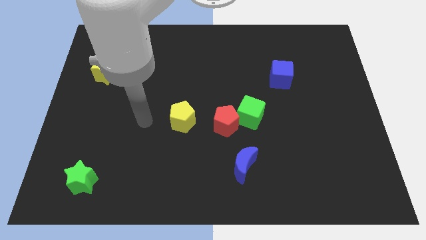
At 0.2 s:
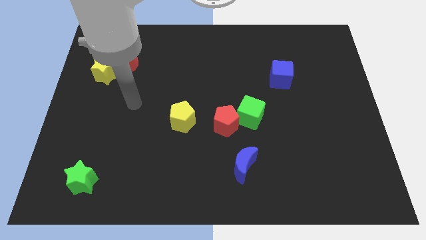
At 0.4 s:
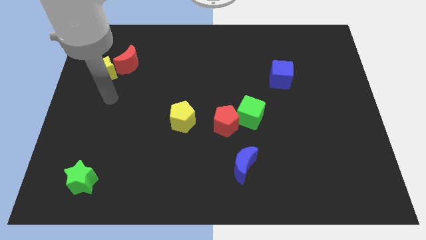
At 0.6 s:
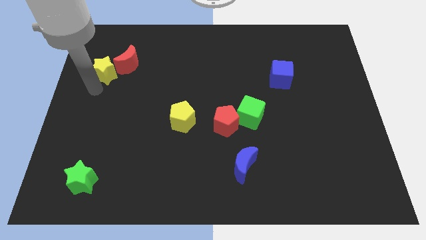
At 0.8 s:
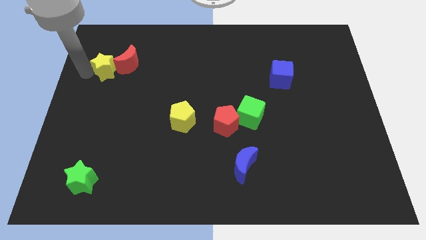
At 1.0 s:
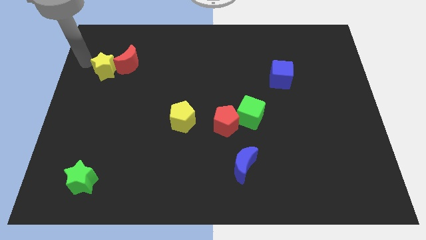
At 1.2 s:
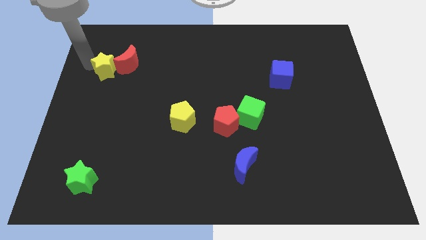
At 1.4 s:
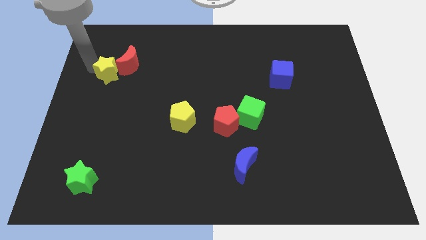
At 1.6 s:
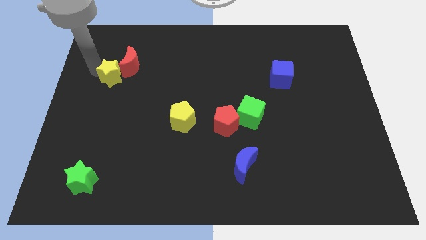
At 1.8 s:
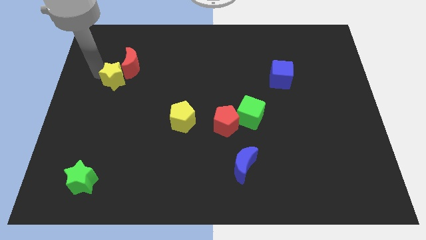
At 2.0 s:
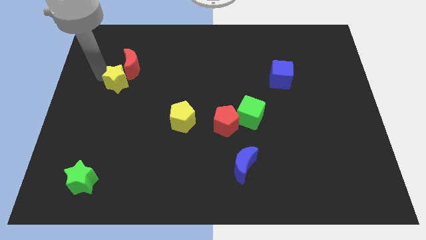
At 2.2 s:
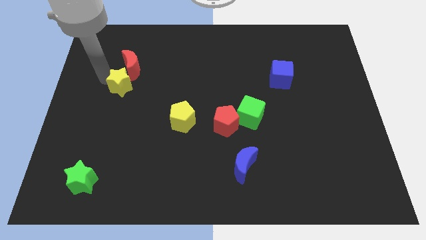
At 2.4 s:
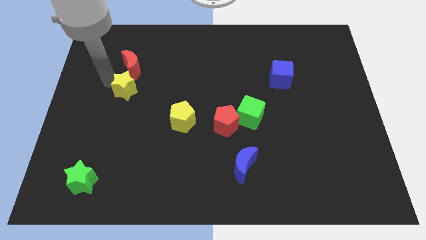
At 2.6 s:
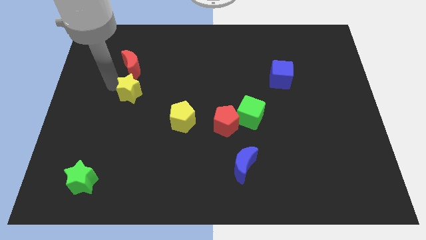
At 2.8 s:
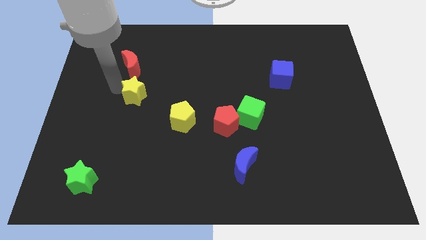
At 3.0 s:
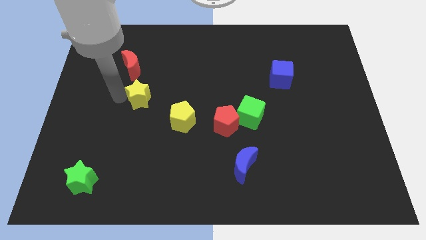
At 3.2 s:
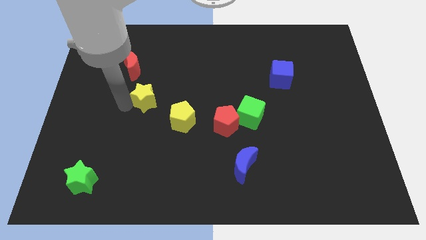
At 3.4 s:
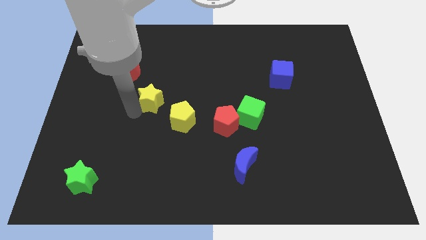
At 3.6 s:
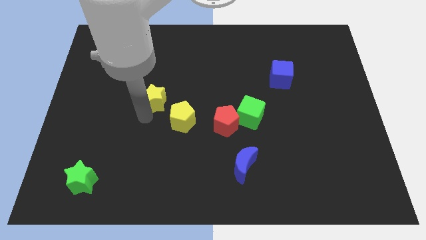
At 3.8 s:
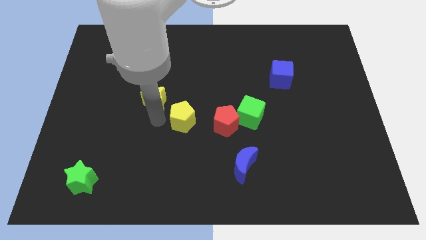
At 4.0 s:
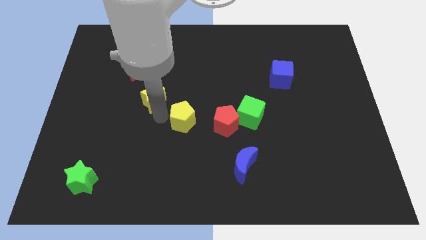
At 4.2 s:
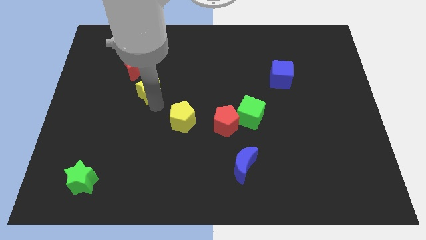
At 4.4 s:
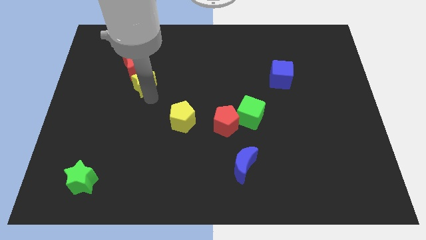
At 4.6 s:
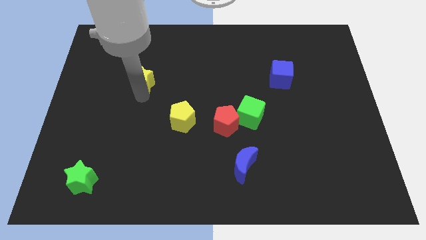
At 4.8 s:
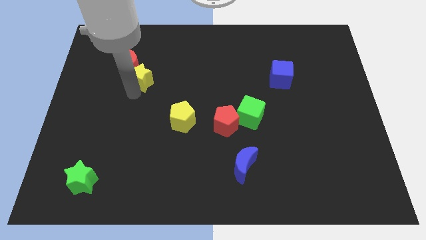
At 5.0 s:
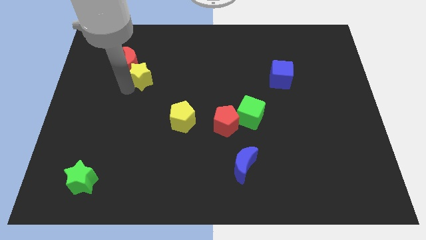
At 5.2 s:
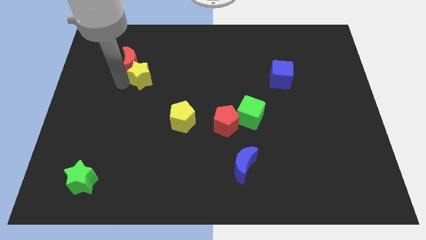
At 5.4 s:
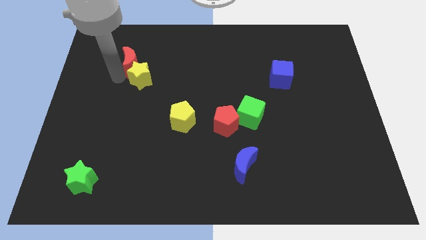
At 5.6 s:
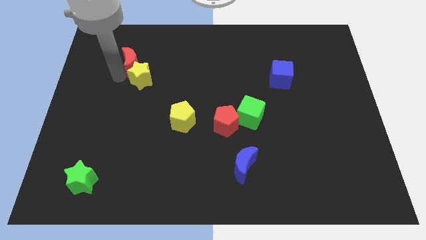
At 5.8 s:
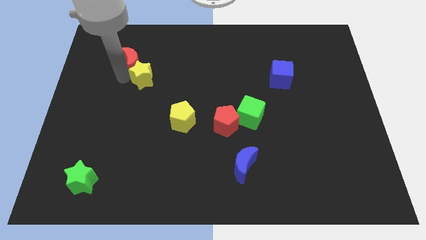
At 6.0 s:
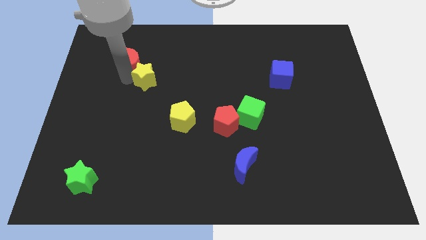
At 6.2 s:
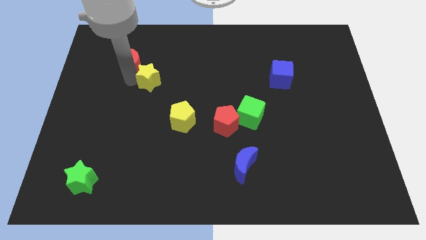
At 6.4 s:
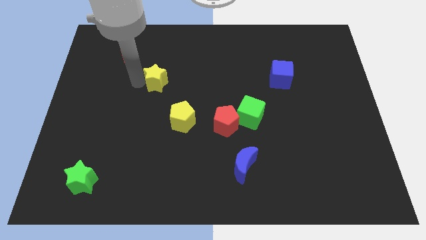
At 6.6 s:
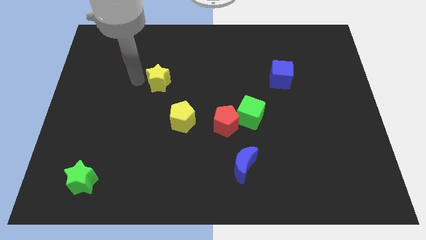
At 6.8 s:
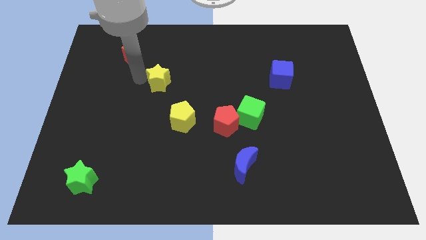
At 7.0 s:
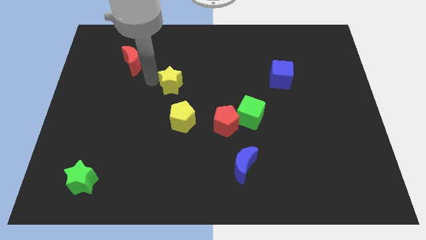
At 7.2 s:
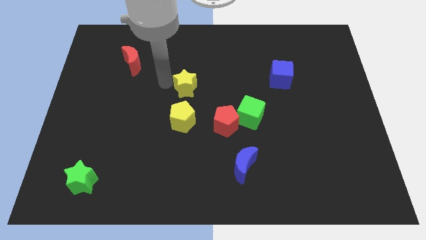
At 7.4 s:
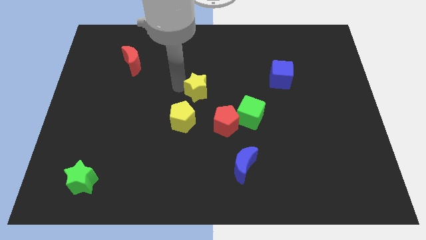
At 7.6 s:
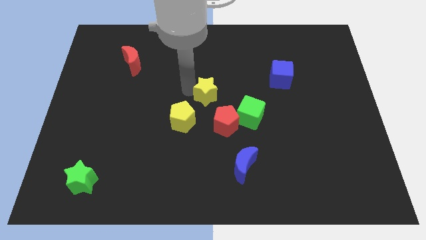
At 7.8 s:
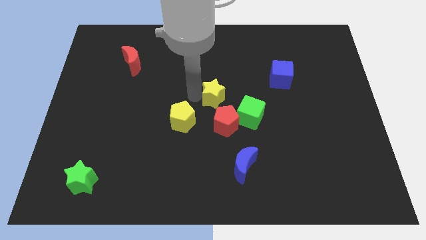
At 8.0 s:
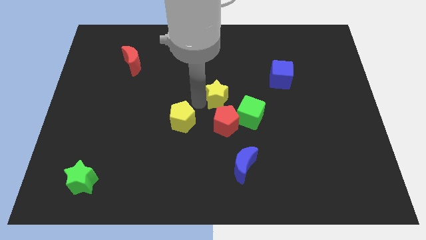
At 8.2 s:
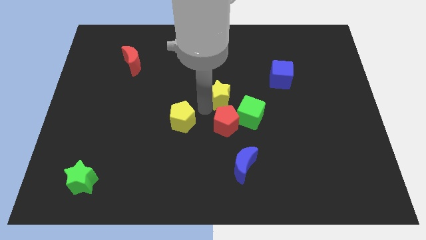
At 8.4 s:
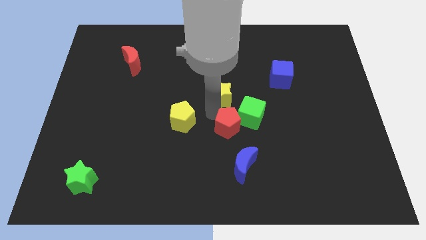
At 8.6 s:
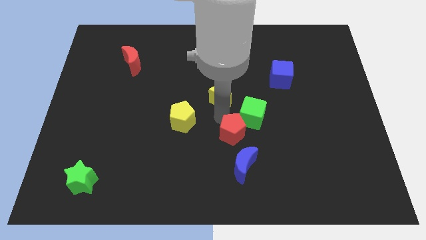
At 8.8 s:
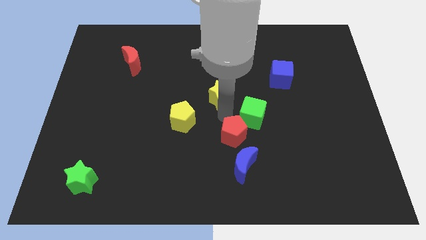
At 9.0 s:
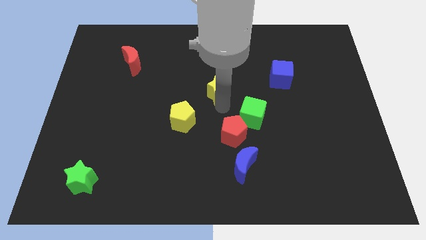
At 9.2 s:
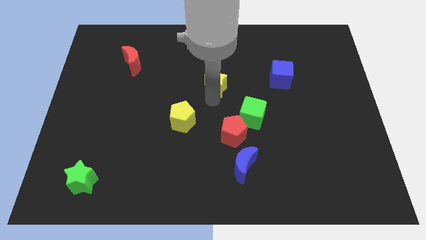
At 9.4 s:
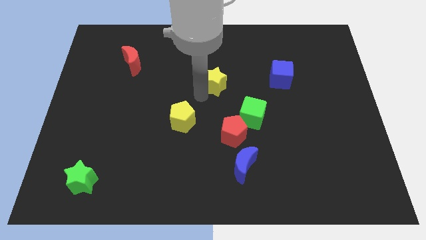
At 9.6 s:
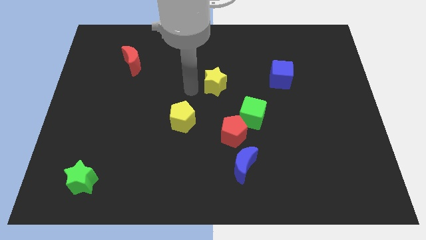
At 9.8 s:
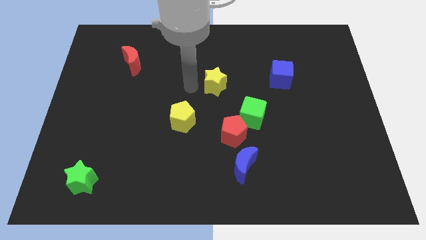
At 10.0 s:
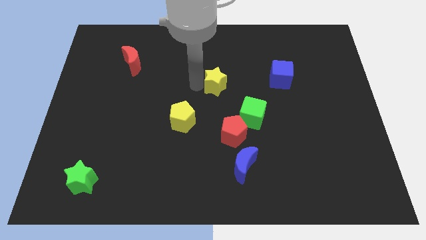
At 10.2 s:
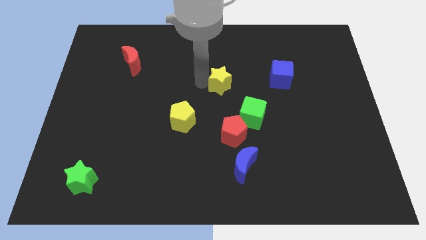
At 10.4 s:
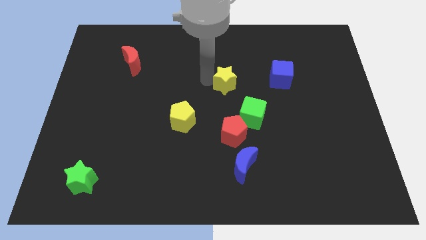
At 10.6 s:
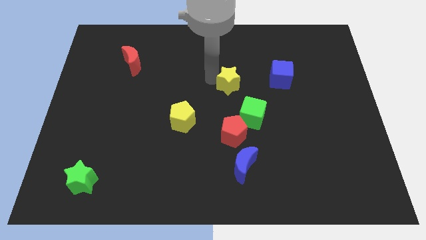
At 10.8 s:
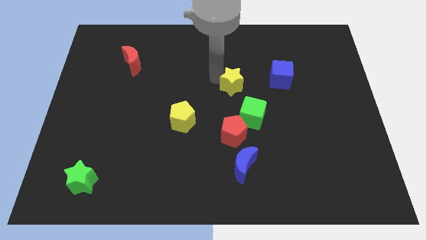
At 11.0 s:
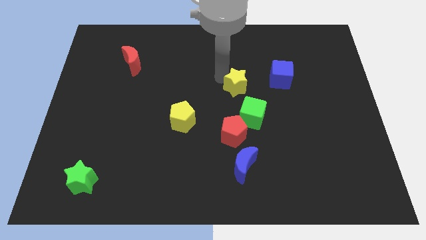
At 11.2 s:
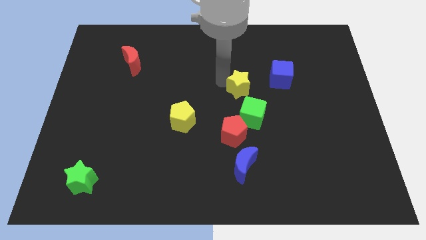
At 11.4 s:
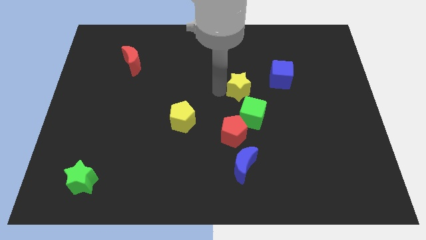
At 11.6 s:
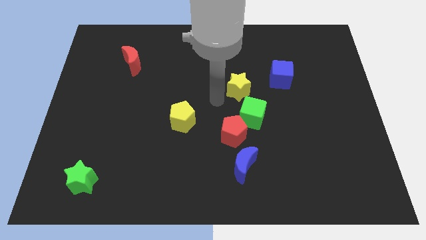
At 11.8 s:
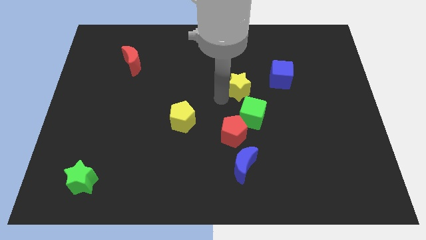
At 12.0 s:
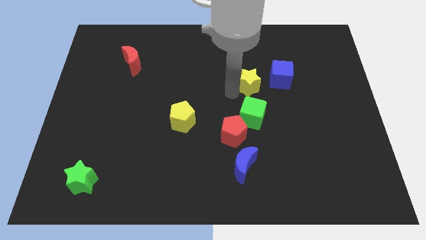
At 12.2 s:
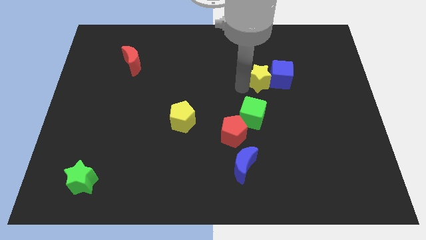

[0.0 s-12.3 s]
move the yellow star next to the blue cube

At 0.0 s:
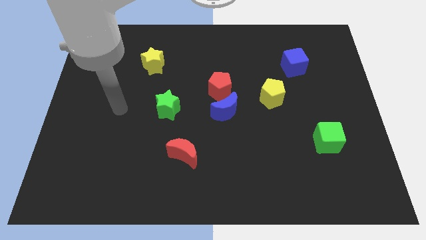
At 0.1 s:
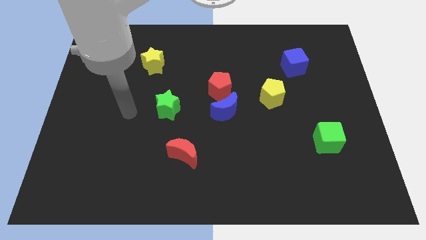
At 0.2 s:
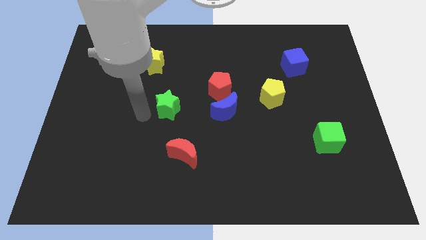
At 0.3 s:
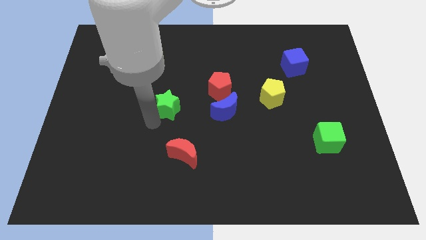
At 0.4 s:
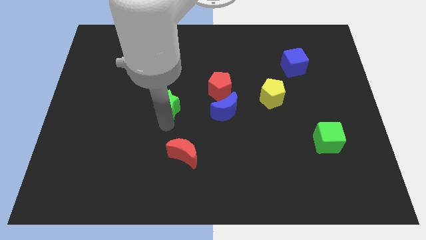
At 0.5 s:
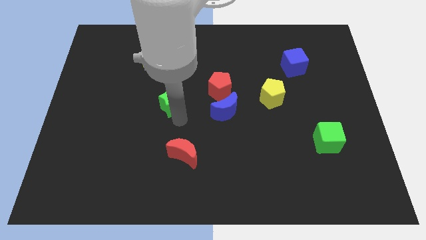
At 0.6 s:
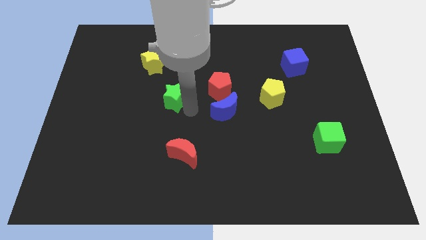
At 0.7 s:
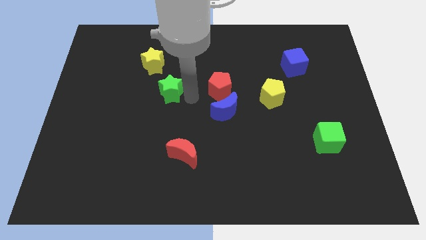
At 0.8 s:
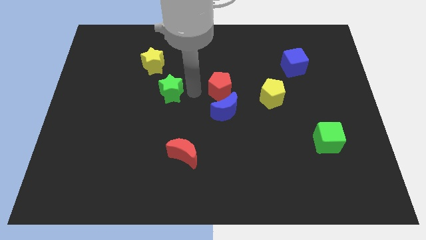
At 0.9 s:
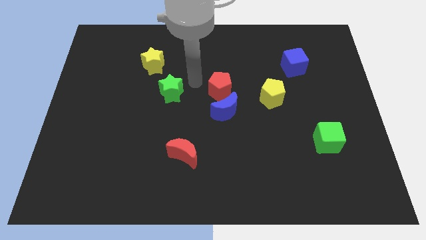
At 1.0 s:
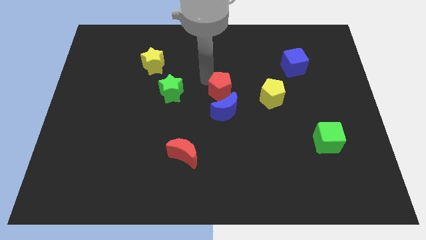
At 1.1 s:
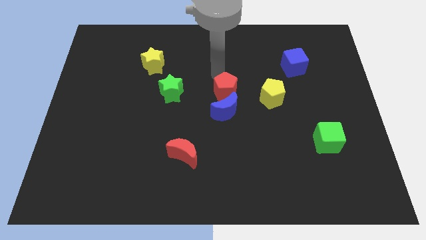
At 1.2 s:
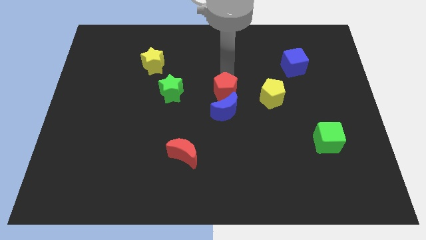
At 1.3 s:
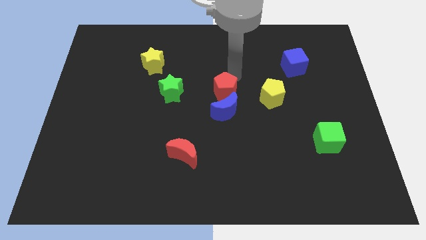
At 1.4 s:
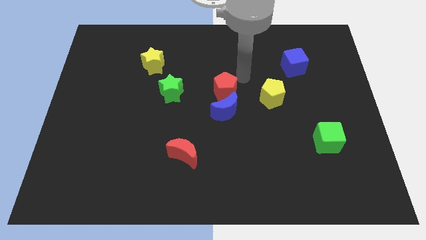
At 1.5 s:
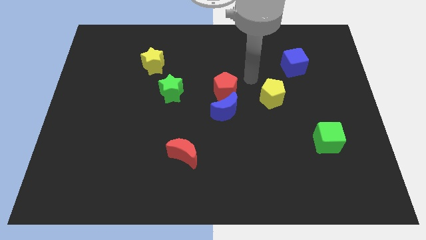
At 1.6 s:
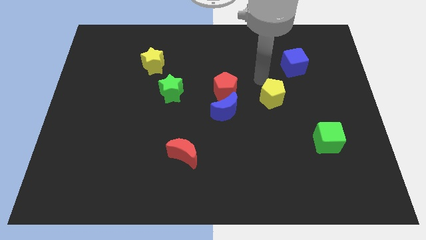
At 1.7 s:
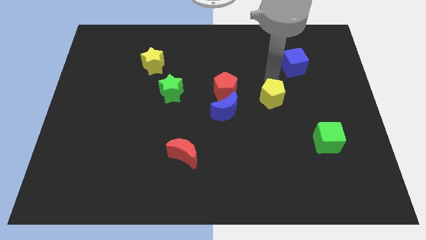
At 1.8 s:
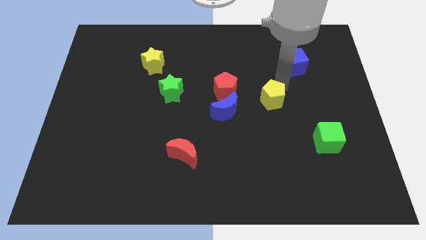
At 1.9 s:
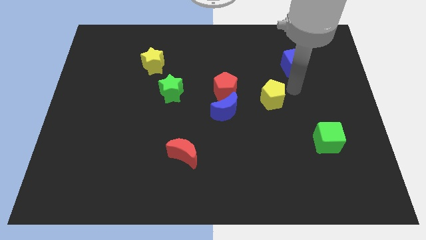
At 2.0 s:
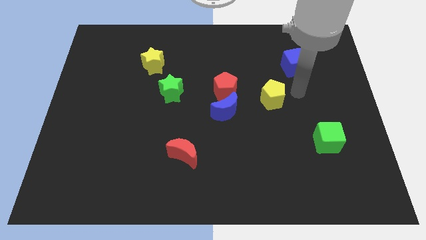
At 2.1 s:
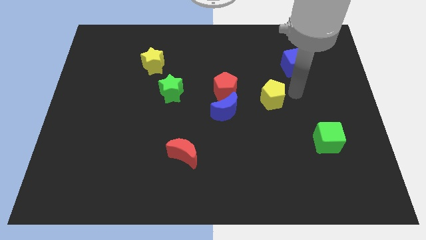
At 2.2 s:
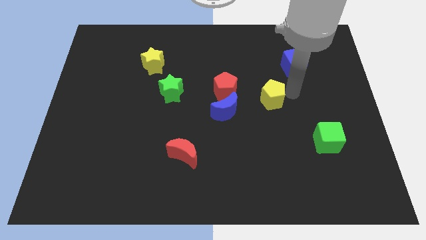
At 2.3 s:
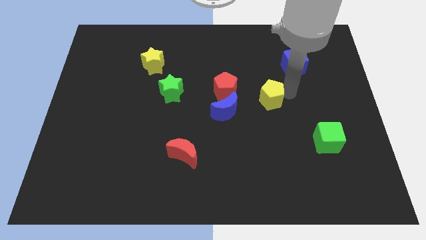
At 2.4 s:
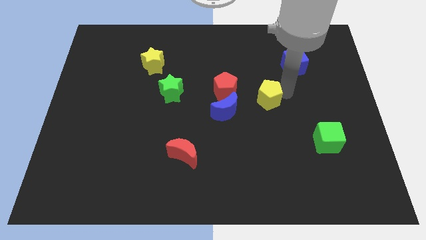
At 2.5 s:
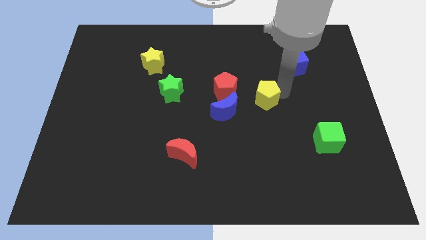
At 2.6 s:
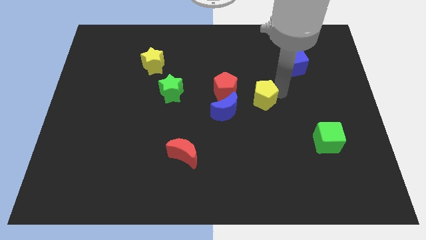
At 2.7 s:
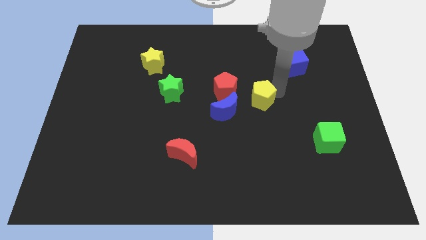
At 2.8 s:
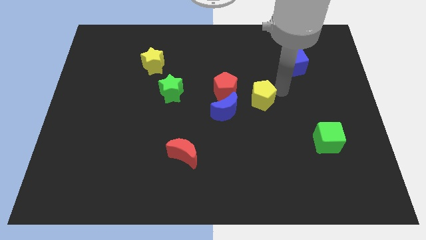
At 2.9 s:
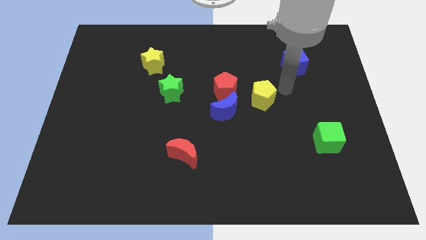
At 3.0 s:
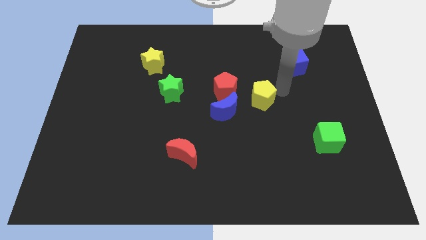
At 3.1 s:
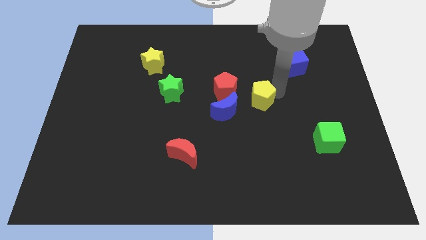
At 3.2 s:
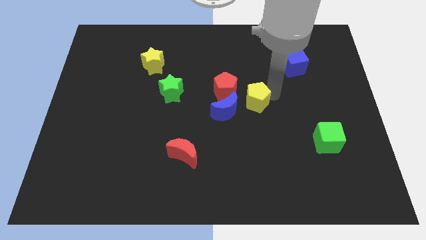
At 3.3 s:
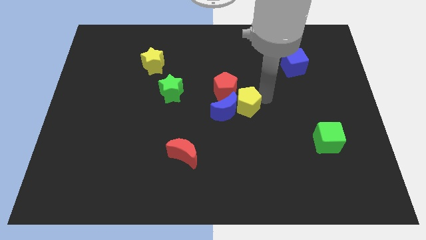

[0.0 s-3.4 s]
move the yellow pentagon to the blue moon
